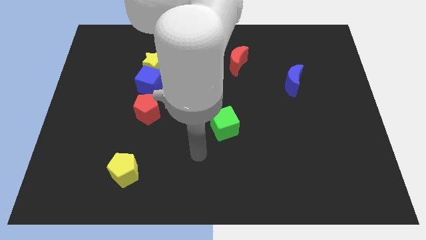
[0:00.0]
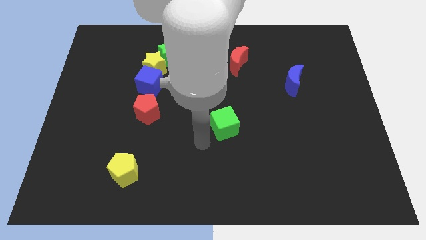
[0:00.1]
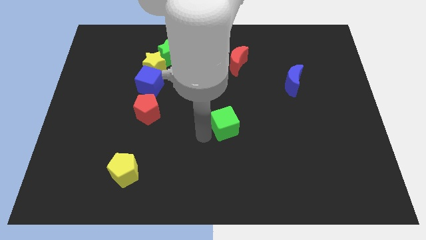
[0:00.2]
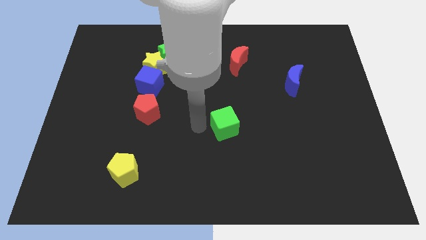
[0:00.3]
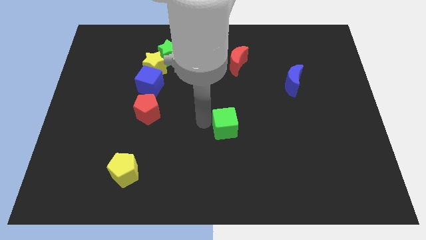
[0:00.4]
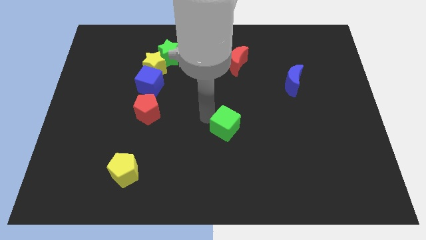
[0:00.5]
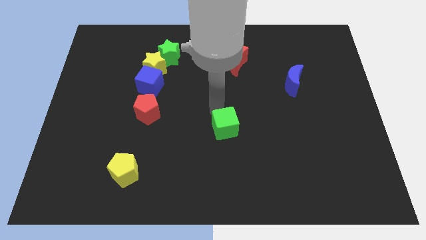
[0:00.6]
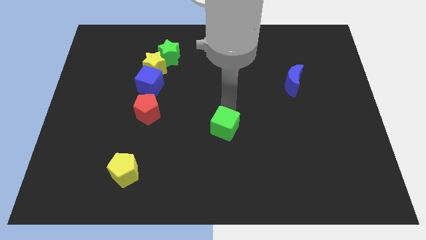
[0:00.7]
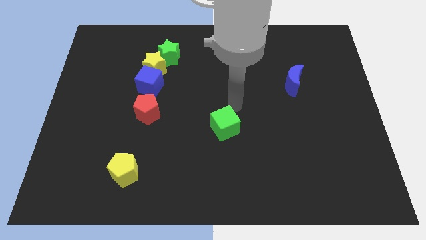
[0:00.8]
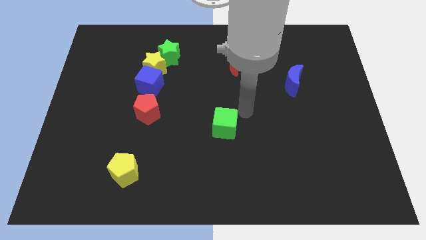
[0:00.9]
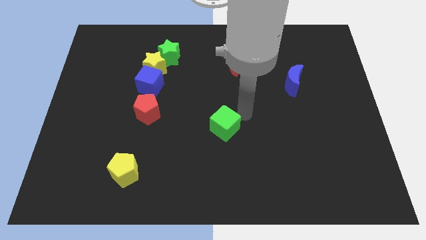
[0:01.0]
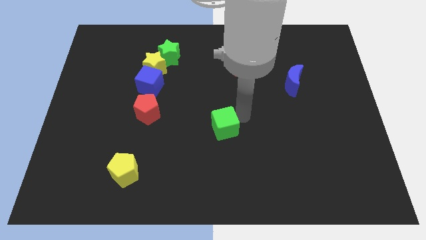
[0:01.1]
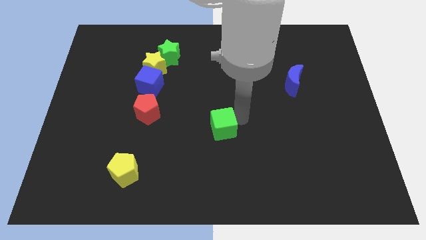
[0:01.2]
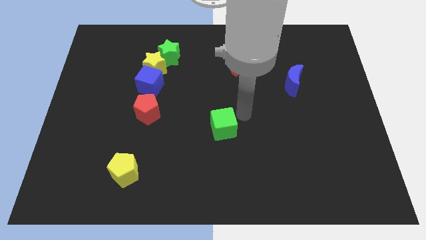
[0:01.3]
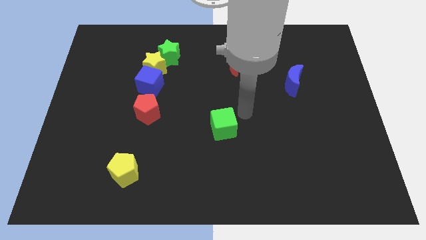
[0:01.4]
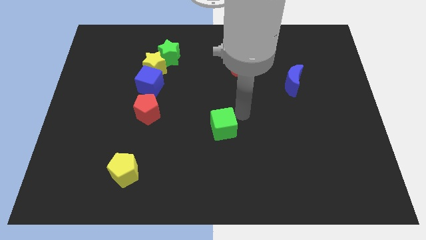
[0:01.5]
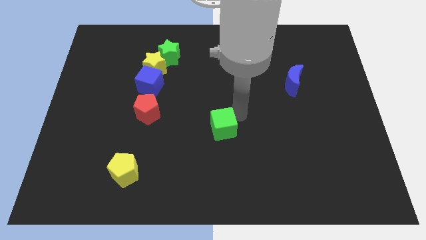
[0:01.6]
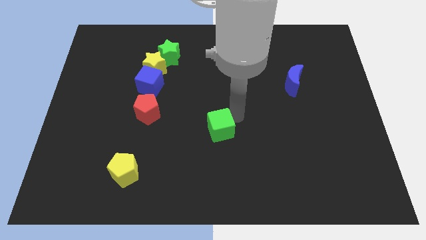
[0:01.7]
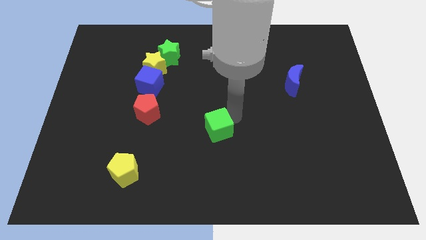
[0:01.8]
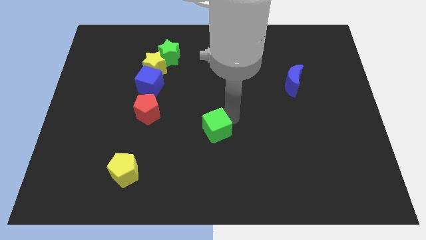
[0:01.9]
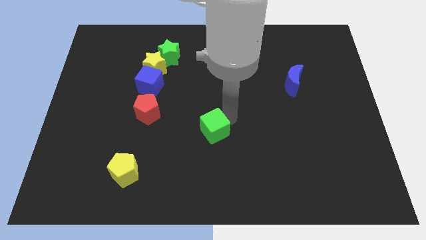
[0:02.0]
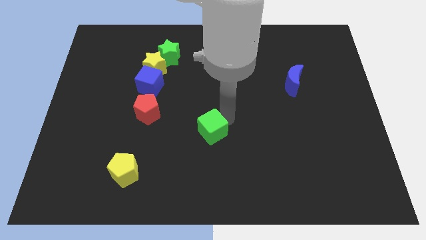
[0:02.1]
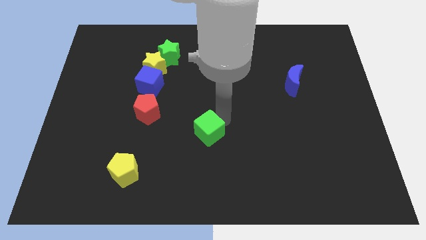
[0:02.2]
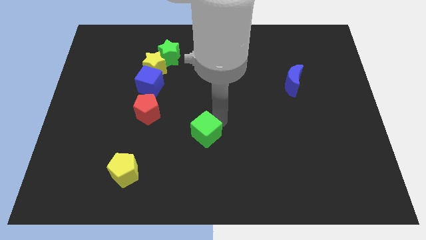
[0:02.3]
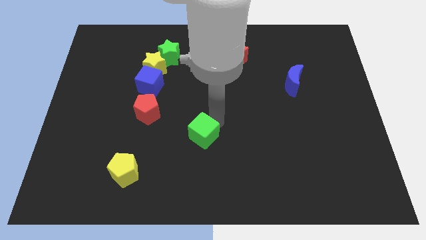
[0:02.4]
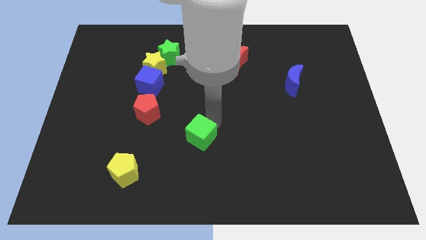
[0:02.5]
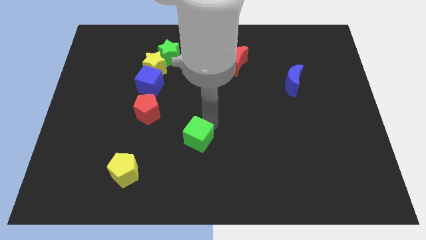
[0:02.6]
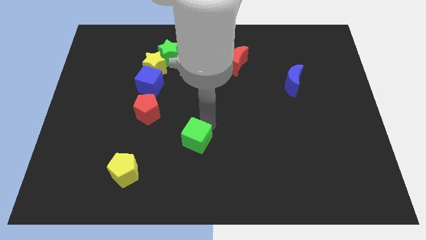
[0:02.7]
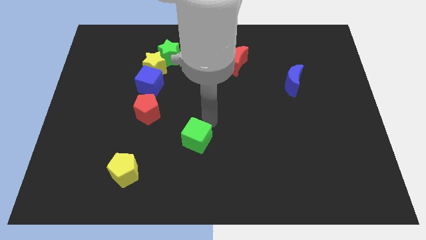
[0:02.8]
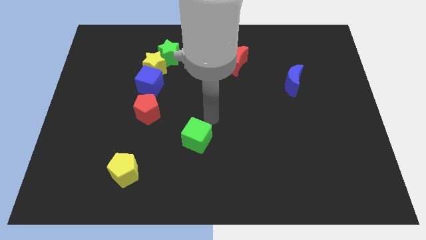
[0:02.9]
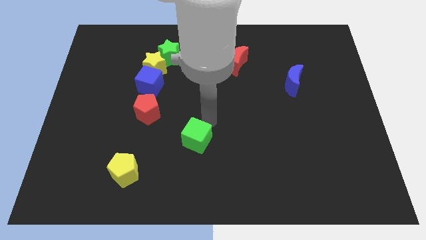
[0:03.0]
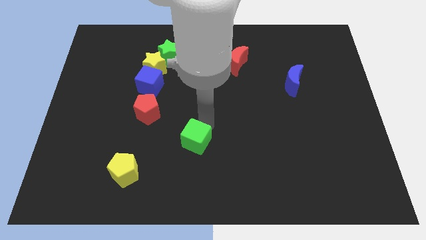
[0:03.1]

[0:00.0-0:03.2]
slide the green cube down and left a little

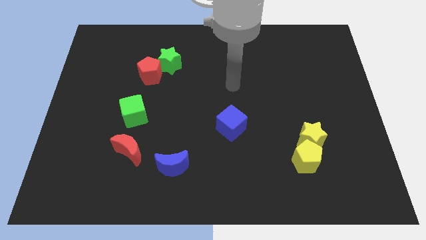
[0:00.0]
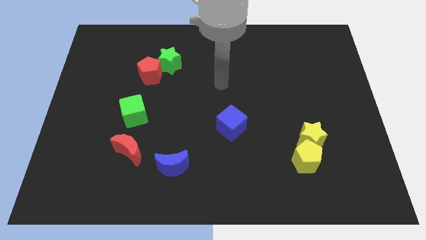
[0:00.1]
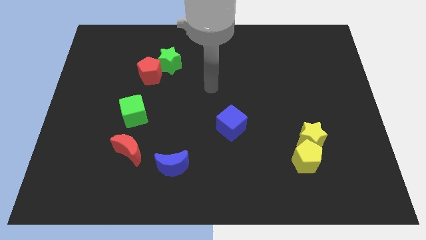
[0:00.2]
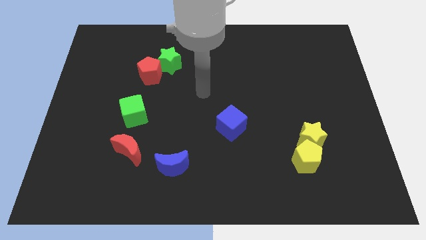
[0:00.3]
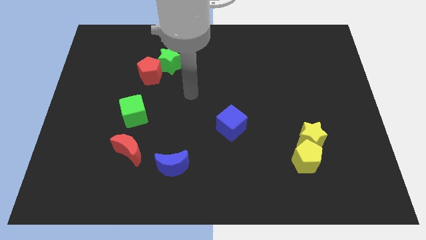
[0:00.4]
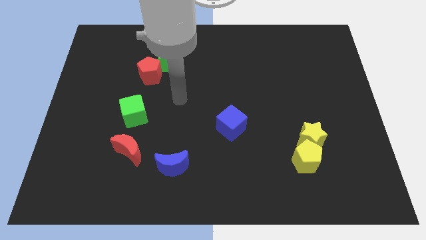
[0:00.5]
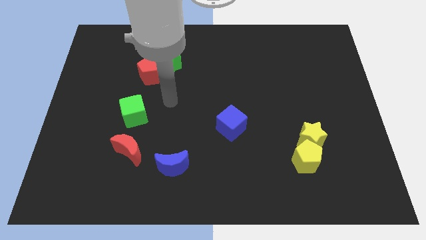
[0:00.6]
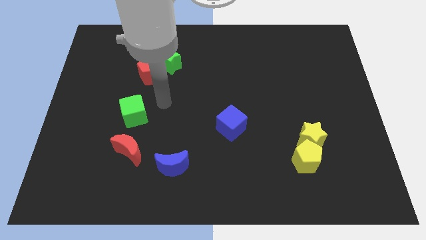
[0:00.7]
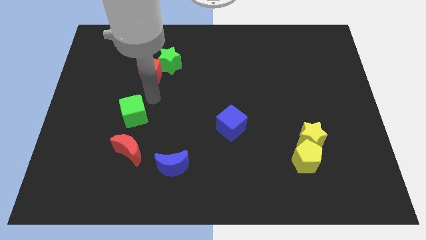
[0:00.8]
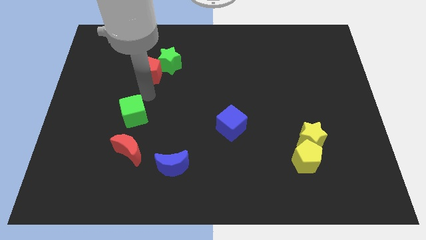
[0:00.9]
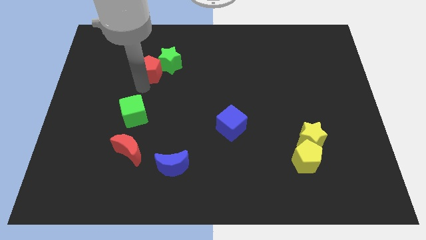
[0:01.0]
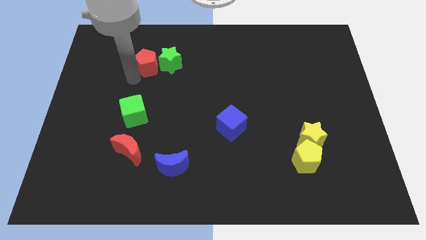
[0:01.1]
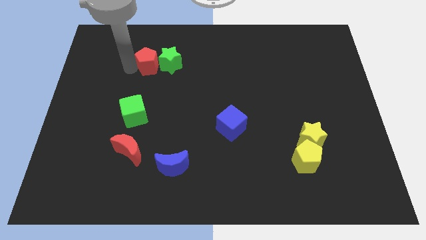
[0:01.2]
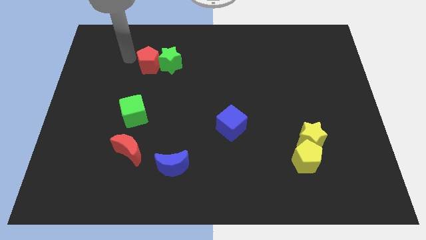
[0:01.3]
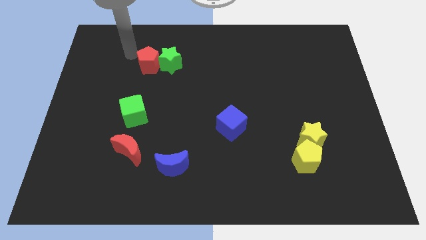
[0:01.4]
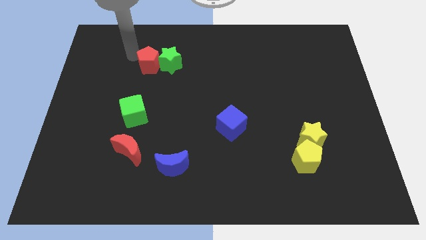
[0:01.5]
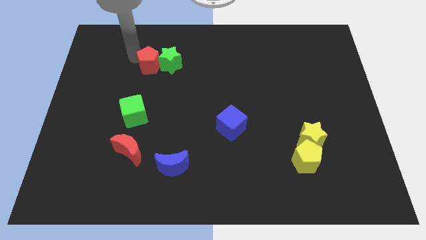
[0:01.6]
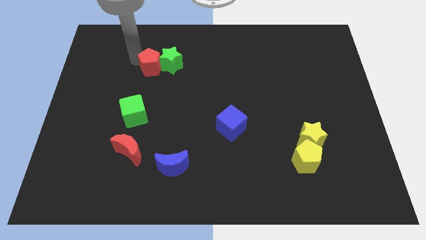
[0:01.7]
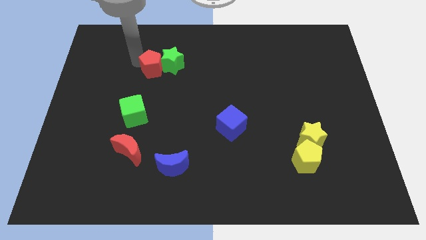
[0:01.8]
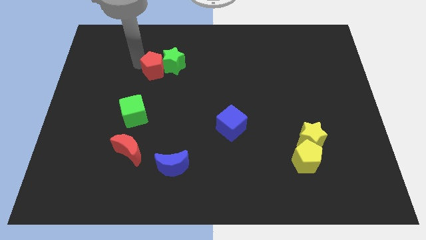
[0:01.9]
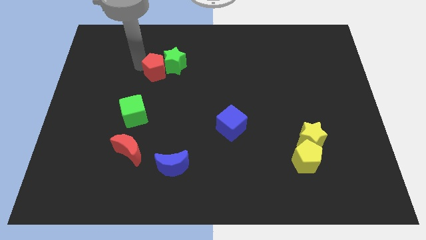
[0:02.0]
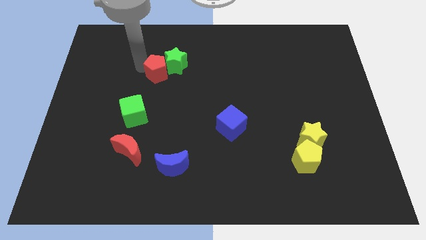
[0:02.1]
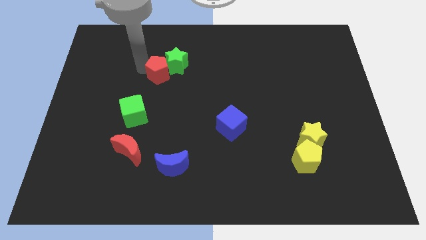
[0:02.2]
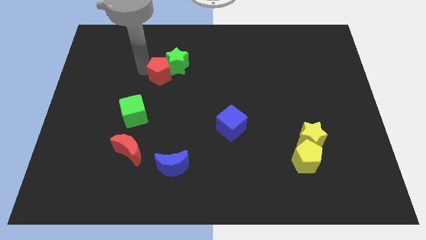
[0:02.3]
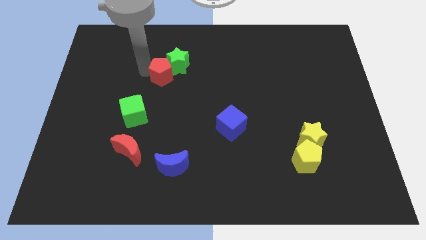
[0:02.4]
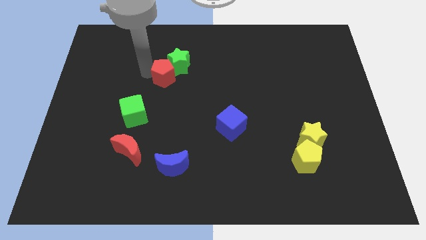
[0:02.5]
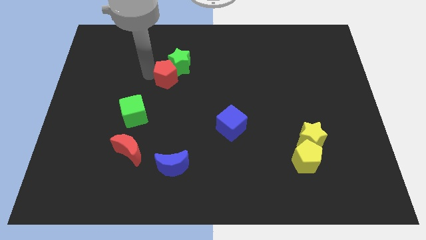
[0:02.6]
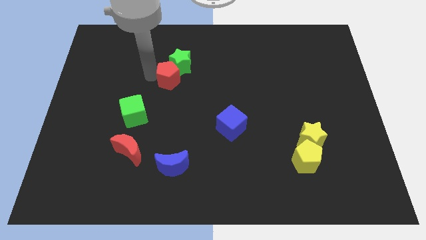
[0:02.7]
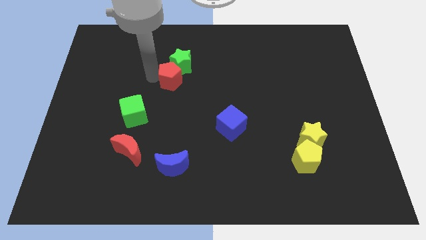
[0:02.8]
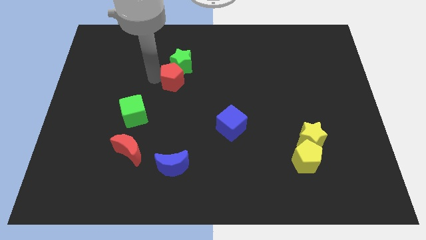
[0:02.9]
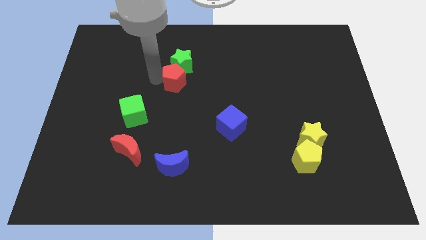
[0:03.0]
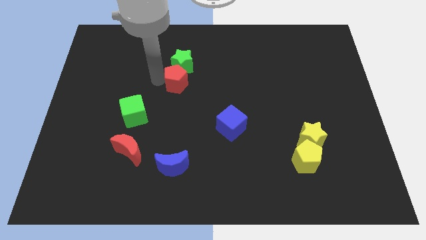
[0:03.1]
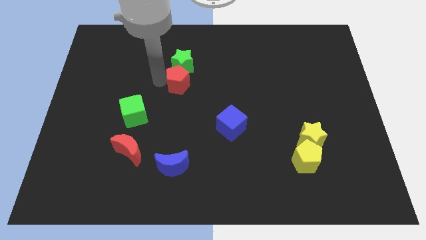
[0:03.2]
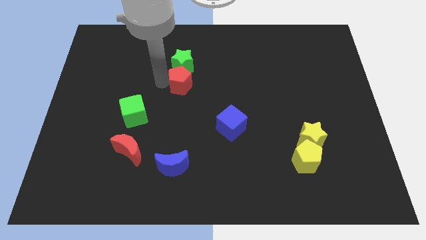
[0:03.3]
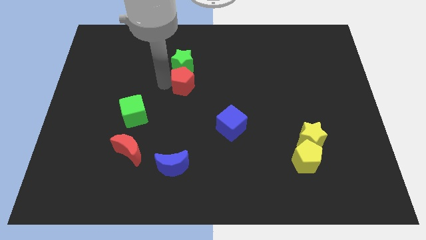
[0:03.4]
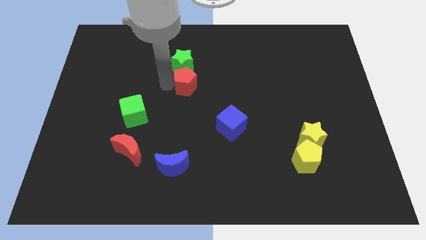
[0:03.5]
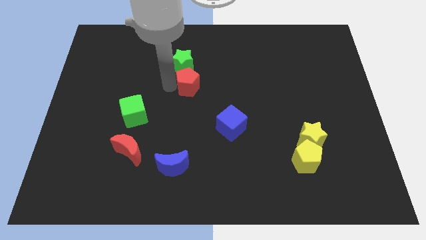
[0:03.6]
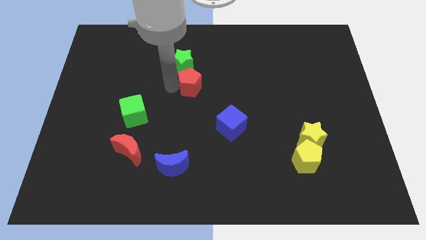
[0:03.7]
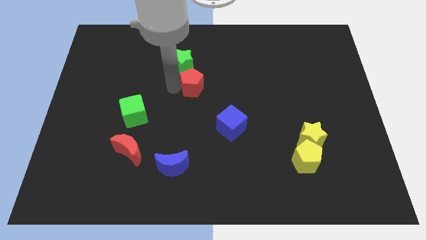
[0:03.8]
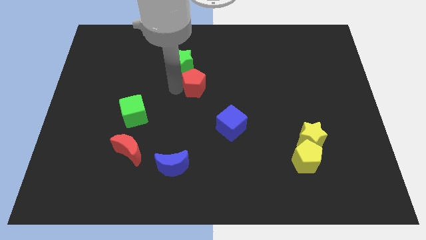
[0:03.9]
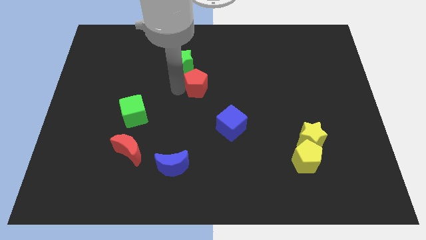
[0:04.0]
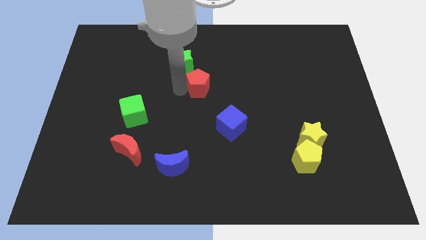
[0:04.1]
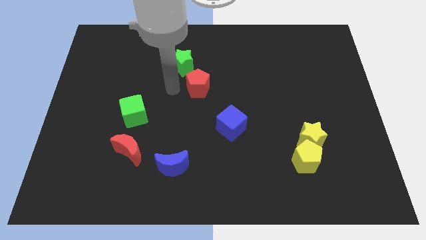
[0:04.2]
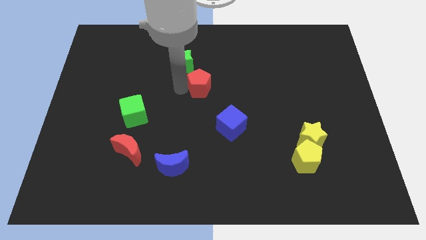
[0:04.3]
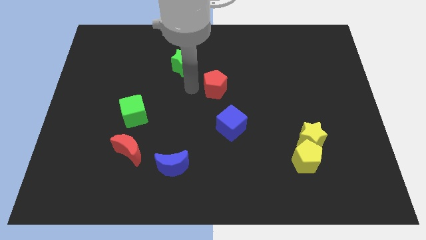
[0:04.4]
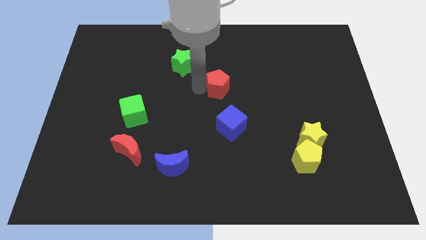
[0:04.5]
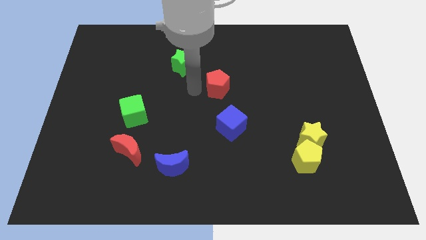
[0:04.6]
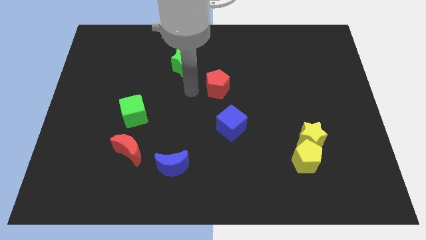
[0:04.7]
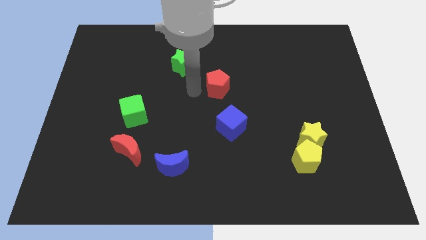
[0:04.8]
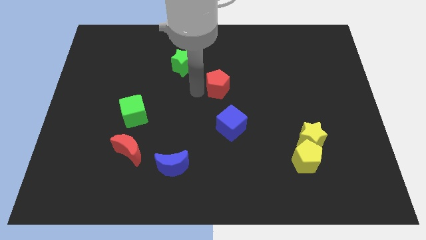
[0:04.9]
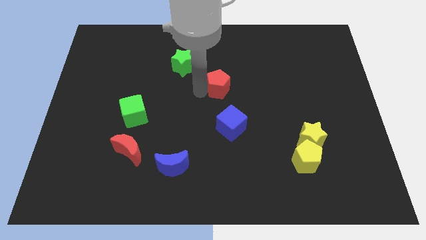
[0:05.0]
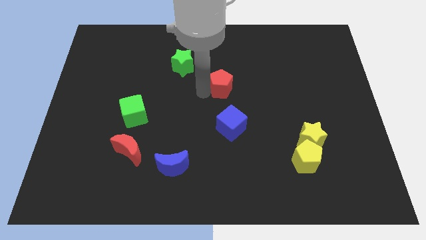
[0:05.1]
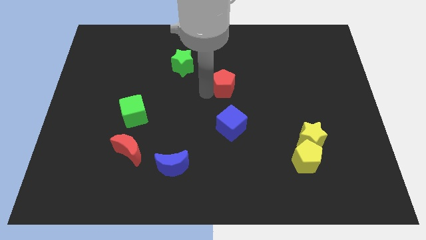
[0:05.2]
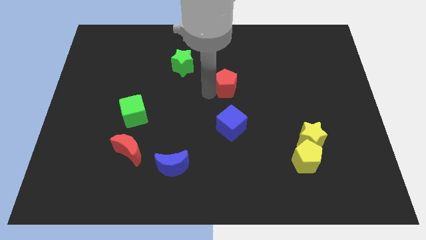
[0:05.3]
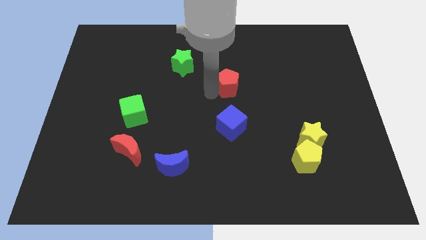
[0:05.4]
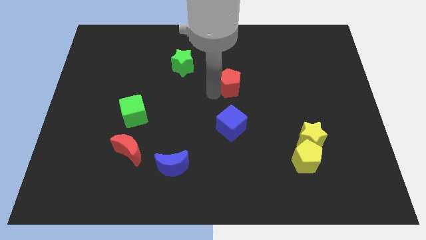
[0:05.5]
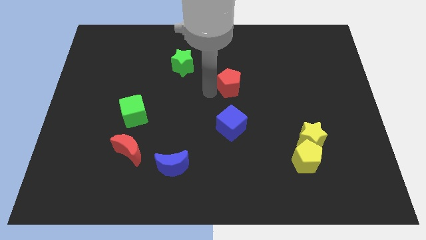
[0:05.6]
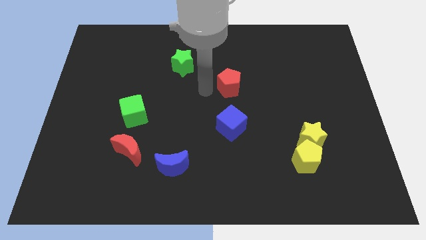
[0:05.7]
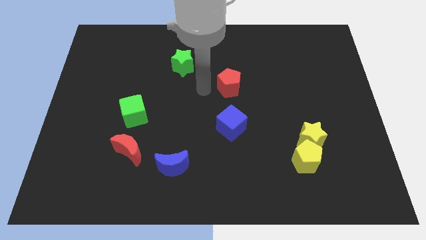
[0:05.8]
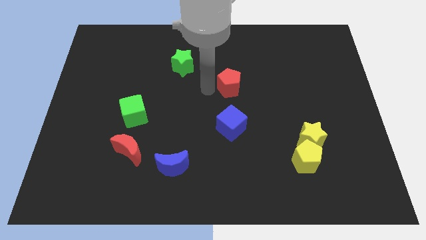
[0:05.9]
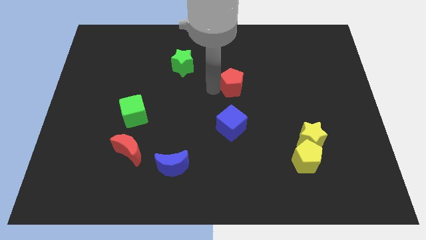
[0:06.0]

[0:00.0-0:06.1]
move the red pentagon to the right
